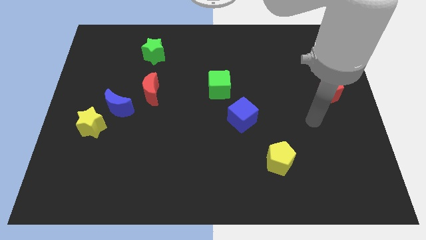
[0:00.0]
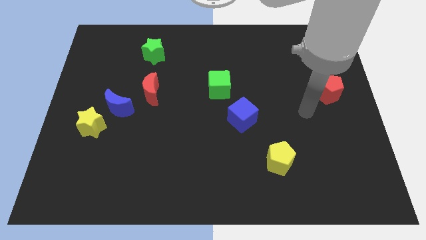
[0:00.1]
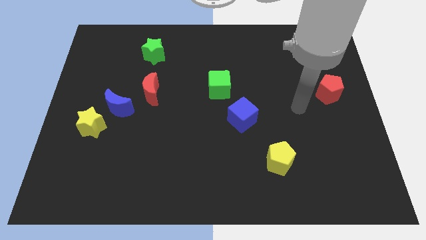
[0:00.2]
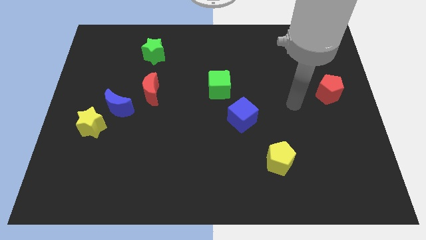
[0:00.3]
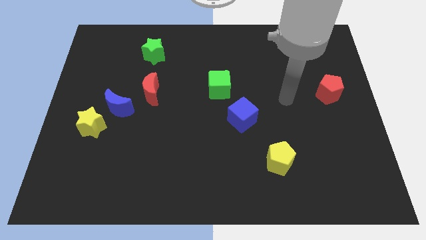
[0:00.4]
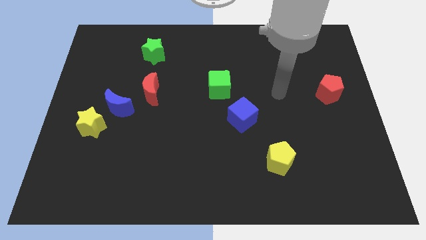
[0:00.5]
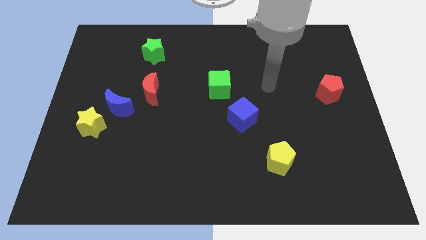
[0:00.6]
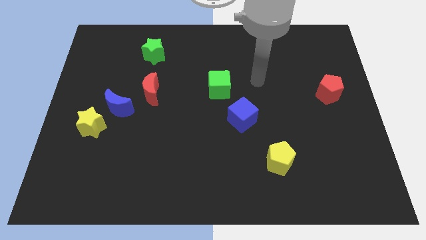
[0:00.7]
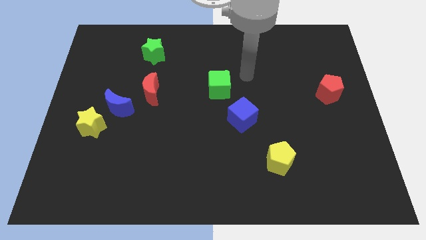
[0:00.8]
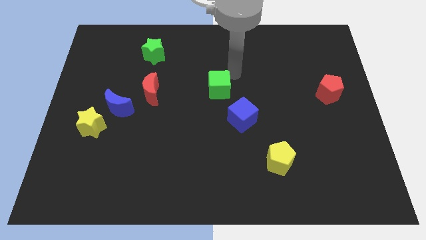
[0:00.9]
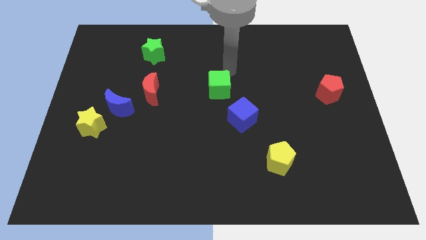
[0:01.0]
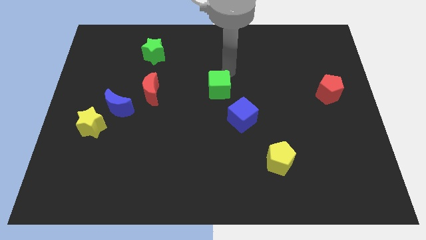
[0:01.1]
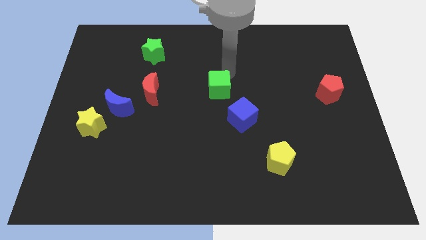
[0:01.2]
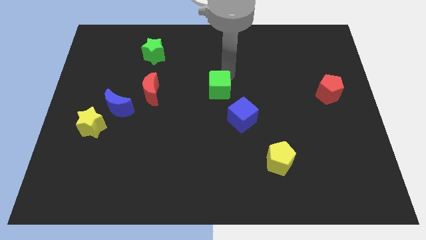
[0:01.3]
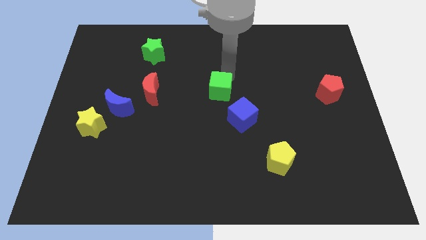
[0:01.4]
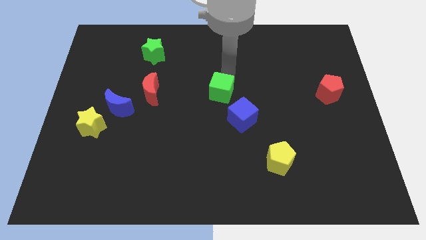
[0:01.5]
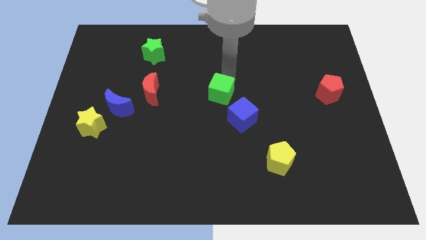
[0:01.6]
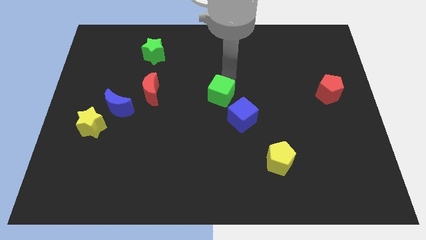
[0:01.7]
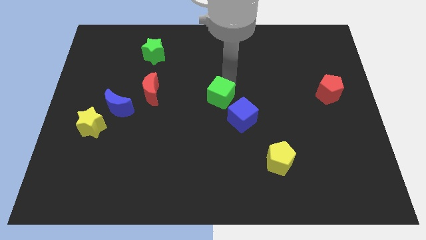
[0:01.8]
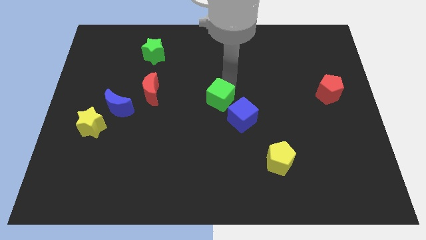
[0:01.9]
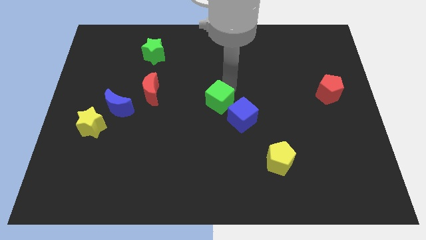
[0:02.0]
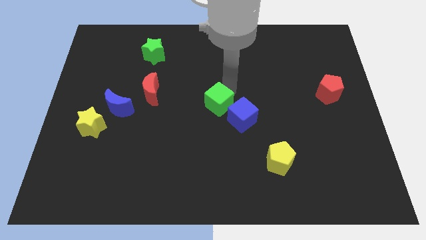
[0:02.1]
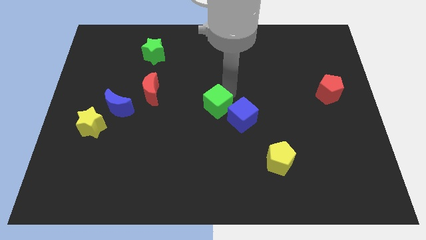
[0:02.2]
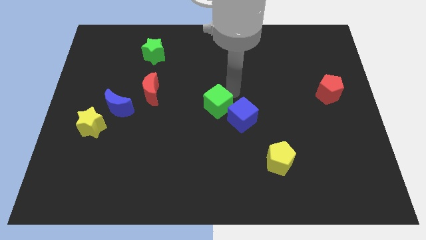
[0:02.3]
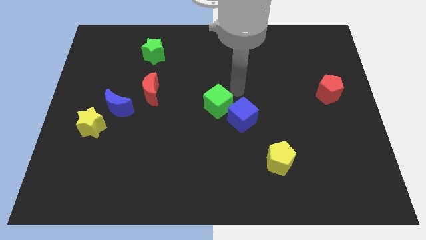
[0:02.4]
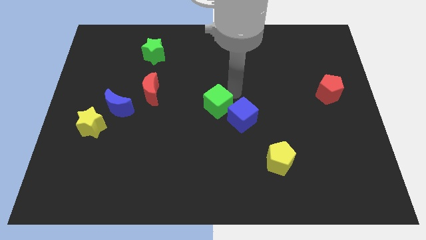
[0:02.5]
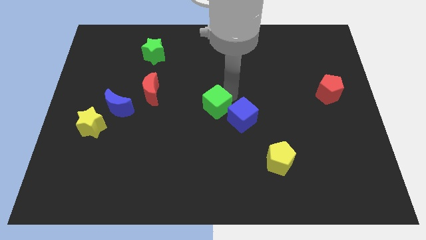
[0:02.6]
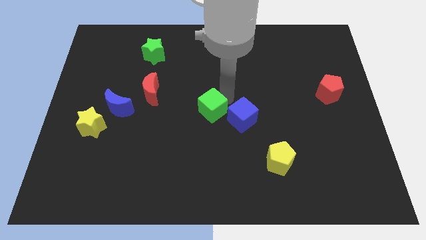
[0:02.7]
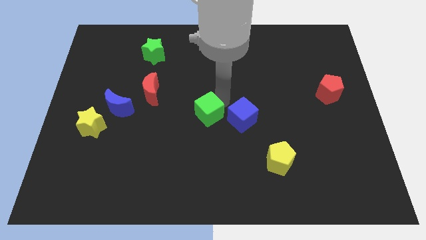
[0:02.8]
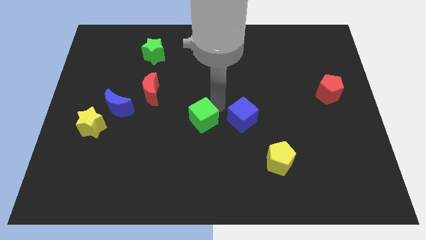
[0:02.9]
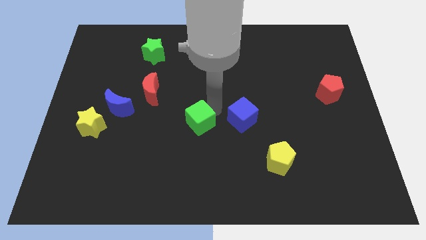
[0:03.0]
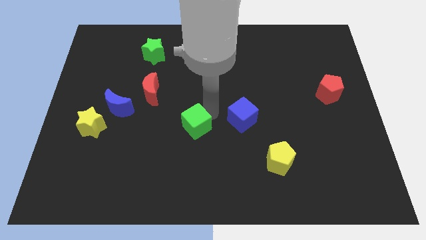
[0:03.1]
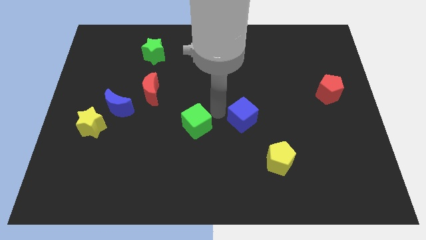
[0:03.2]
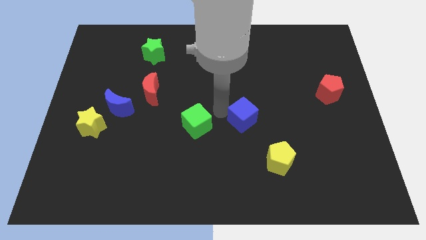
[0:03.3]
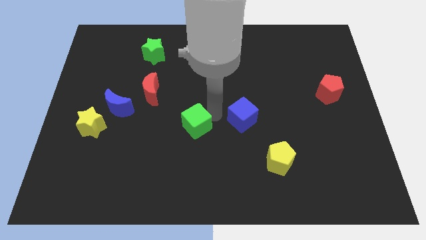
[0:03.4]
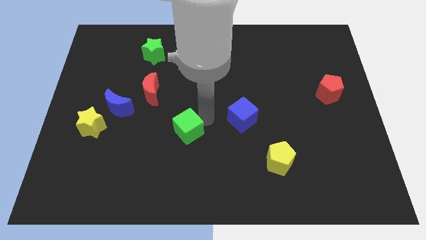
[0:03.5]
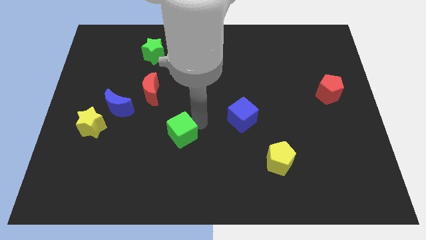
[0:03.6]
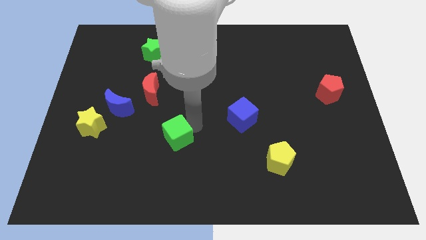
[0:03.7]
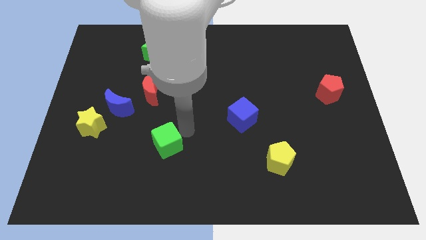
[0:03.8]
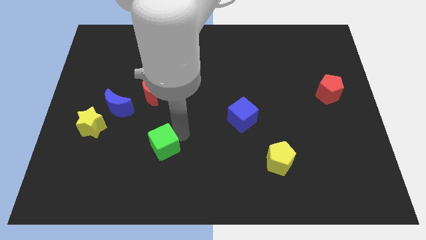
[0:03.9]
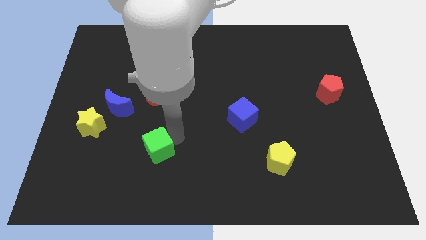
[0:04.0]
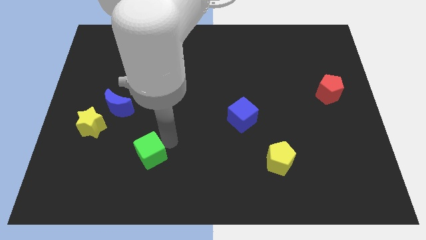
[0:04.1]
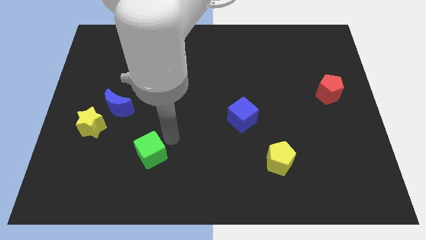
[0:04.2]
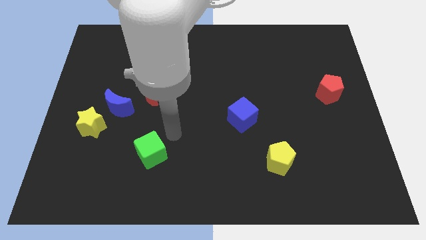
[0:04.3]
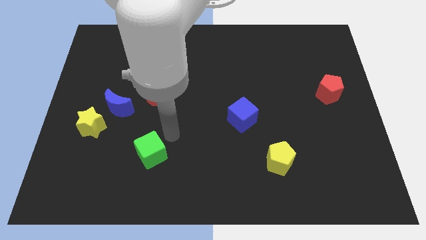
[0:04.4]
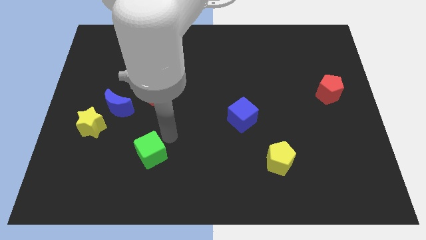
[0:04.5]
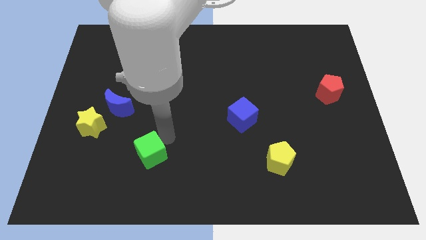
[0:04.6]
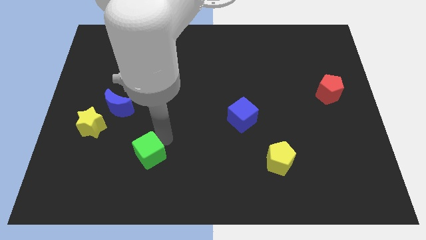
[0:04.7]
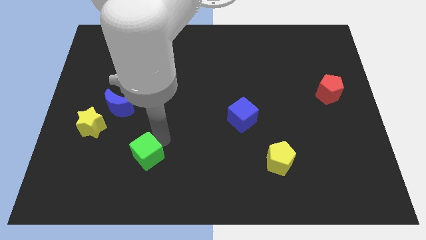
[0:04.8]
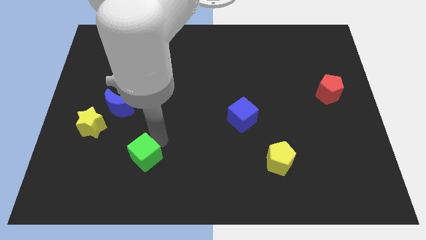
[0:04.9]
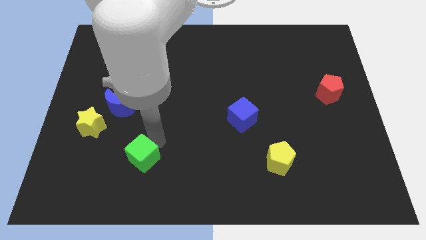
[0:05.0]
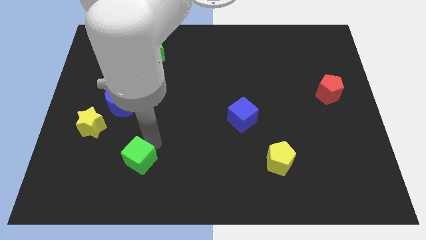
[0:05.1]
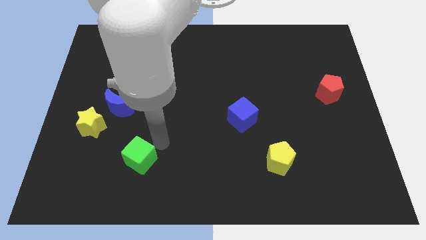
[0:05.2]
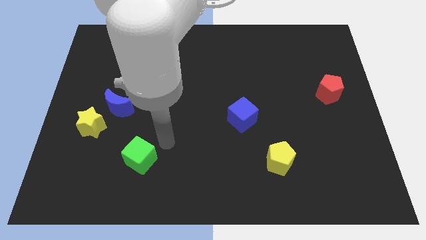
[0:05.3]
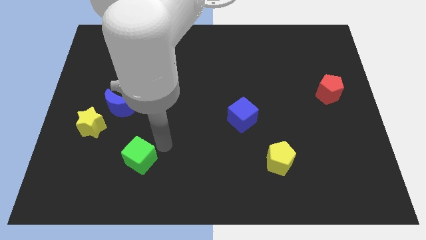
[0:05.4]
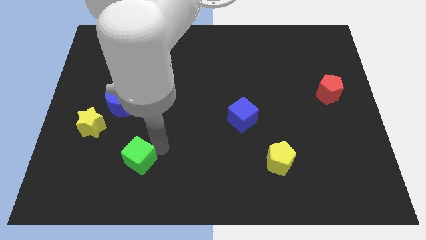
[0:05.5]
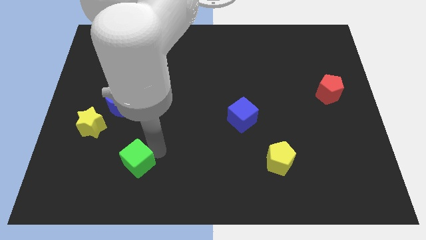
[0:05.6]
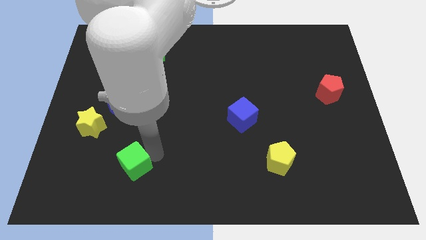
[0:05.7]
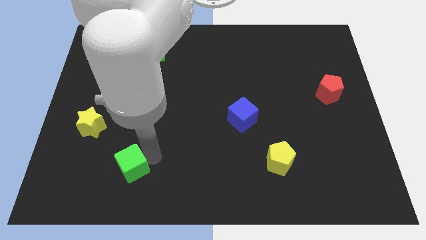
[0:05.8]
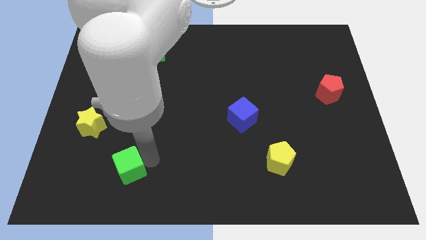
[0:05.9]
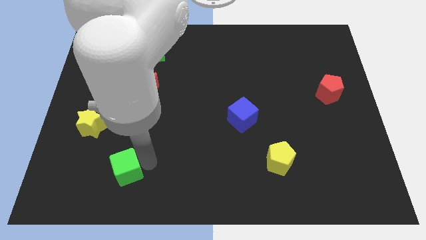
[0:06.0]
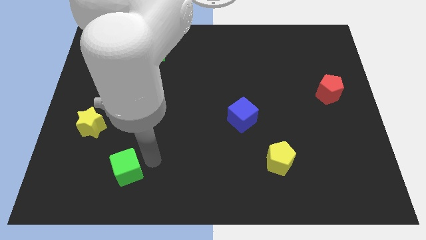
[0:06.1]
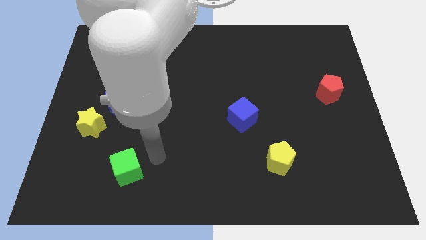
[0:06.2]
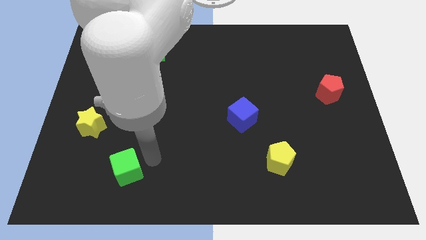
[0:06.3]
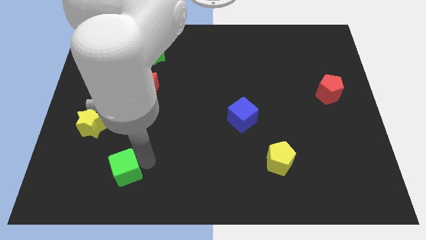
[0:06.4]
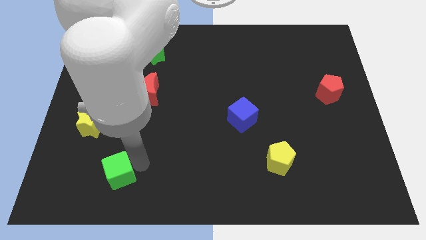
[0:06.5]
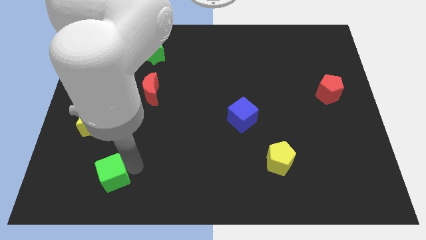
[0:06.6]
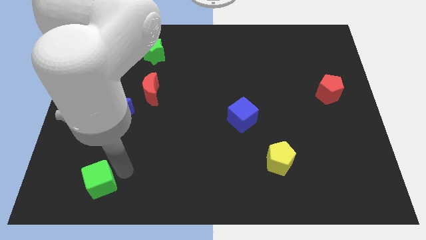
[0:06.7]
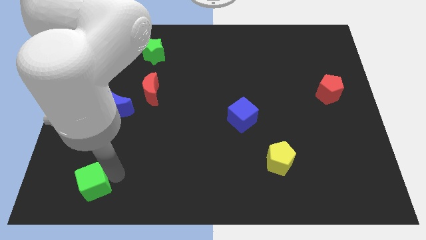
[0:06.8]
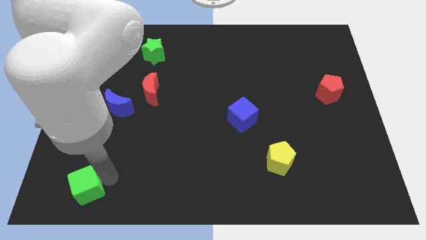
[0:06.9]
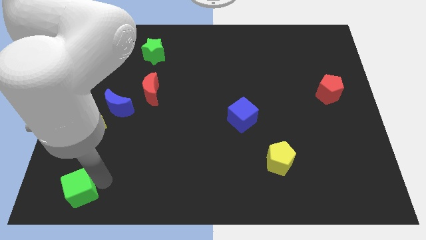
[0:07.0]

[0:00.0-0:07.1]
slide the green cube to the bottom left of the board

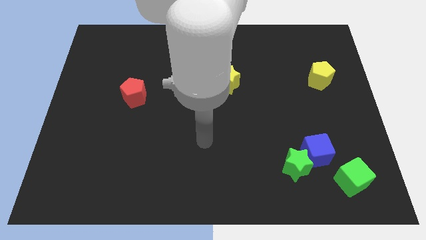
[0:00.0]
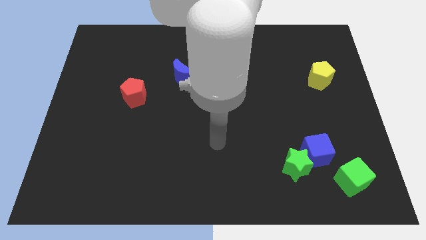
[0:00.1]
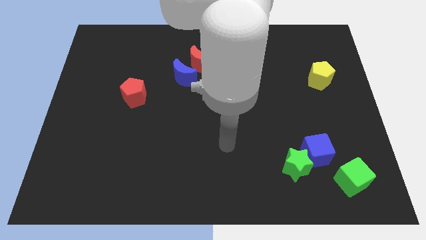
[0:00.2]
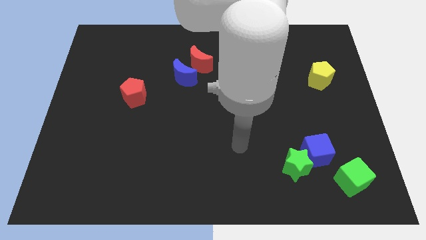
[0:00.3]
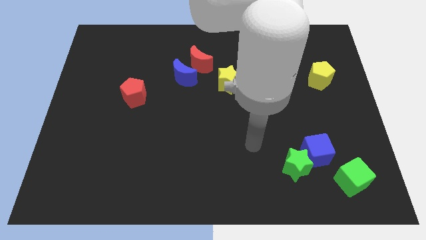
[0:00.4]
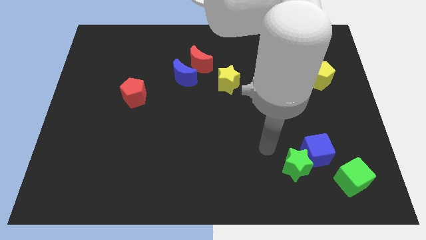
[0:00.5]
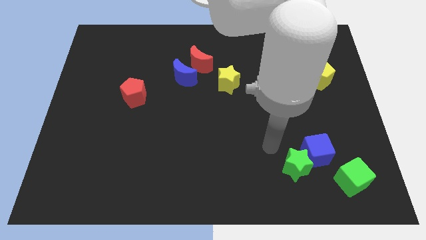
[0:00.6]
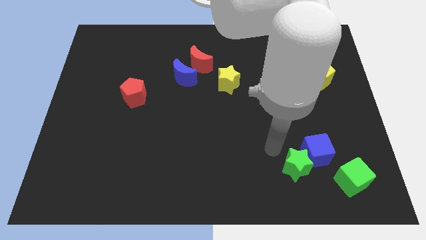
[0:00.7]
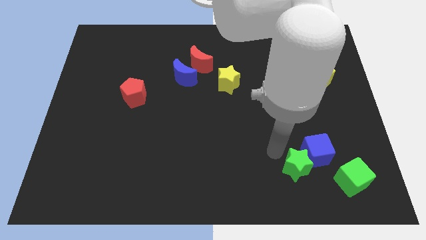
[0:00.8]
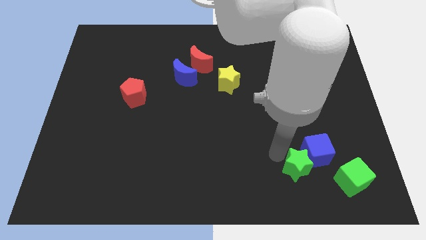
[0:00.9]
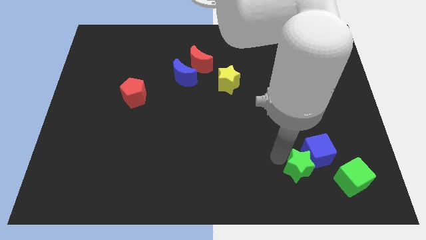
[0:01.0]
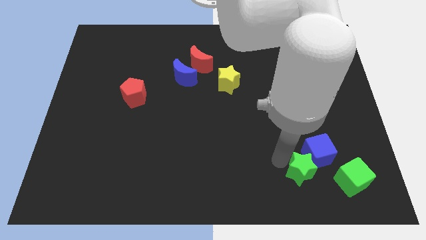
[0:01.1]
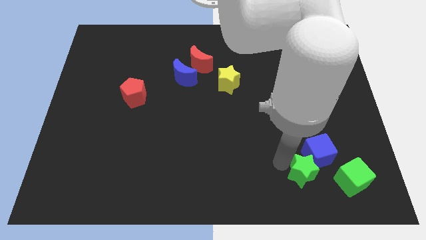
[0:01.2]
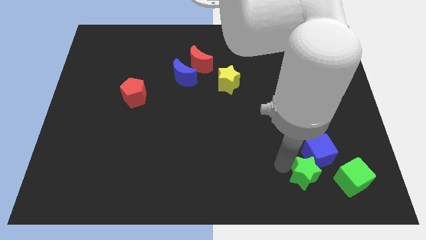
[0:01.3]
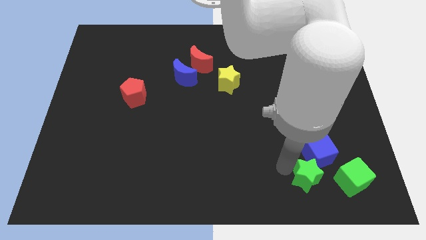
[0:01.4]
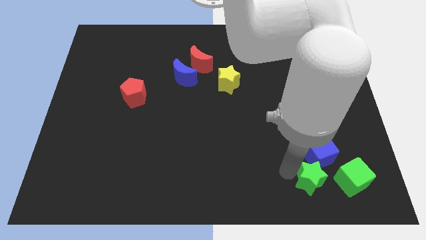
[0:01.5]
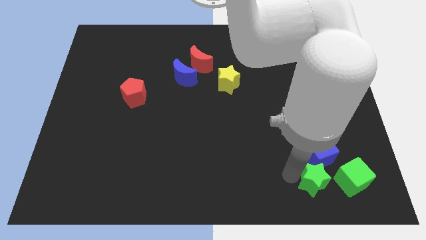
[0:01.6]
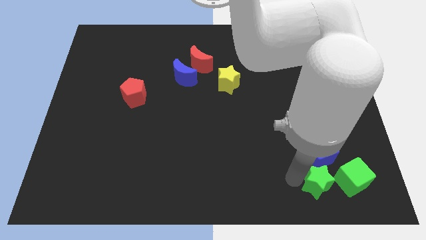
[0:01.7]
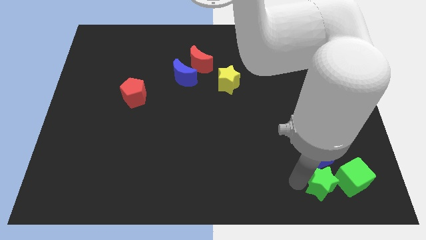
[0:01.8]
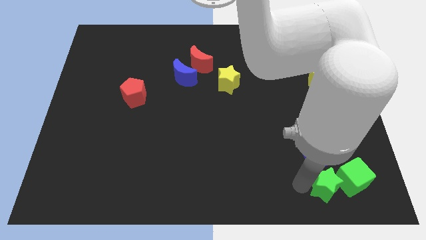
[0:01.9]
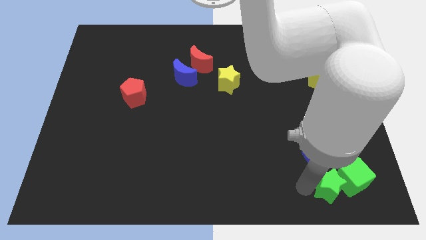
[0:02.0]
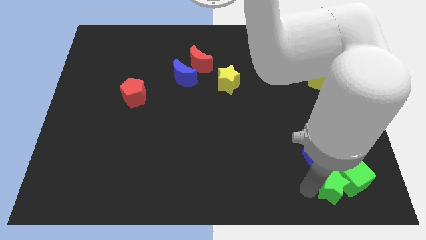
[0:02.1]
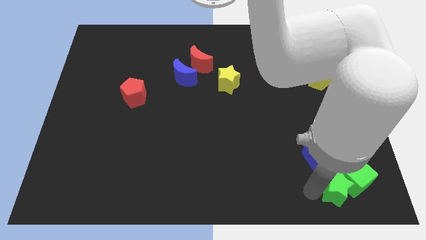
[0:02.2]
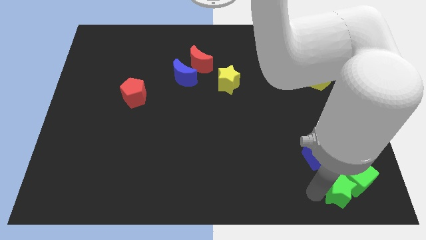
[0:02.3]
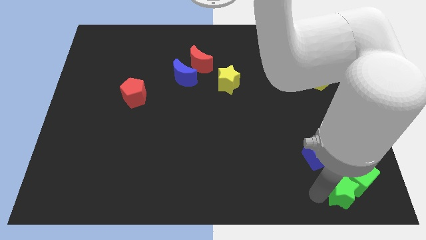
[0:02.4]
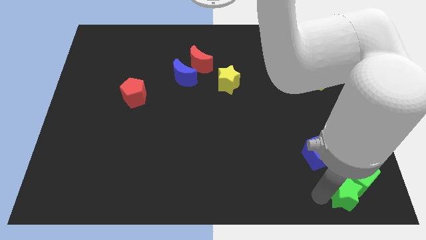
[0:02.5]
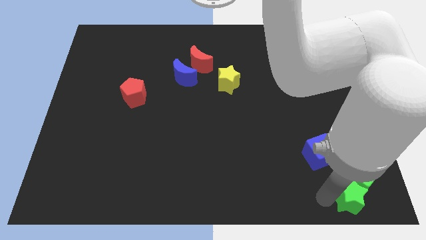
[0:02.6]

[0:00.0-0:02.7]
slide the green star to the lower right corner
